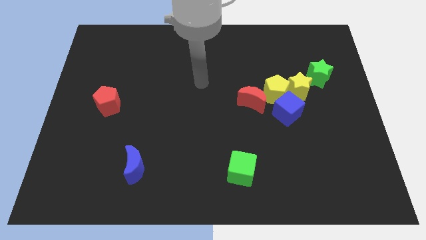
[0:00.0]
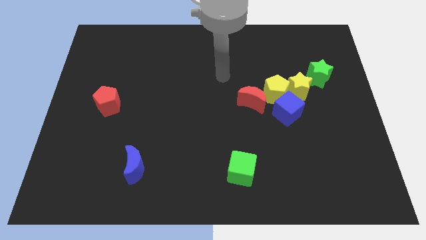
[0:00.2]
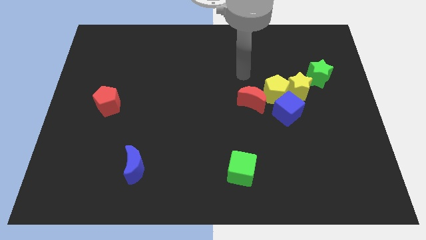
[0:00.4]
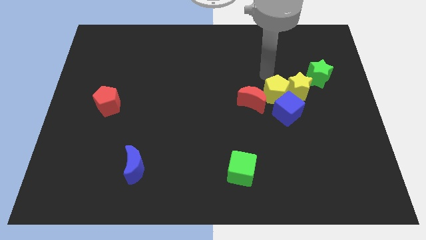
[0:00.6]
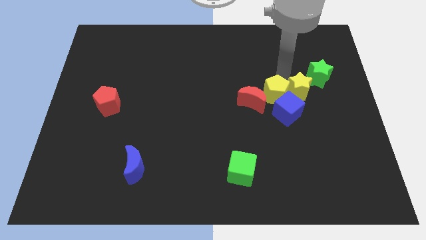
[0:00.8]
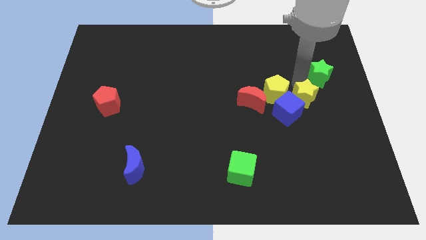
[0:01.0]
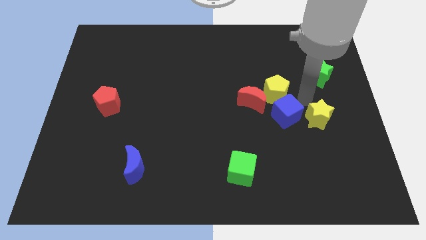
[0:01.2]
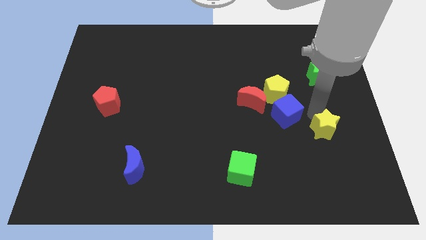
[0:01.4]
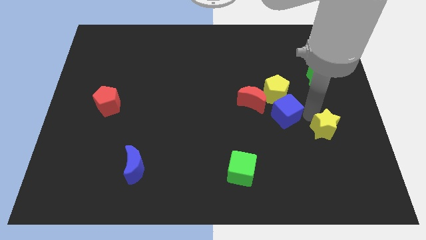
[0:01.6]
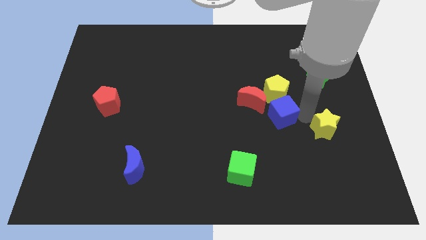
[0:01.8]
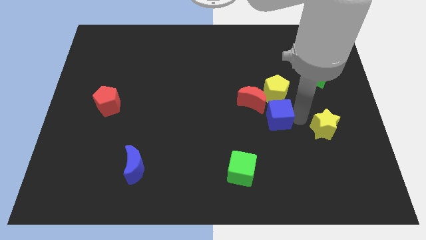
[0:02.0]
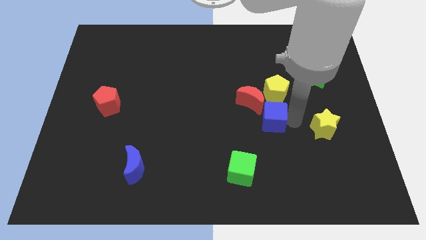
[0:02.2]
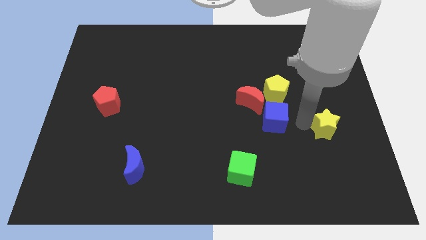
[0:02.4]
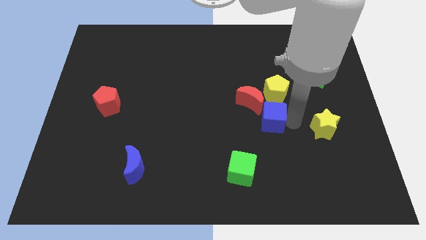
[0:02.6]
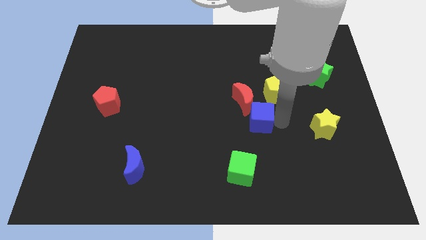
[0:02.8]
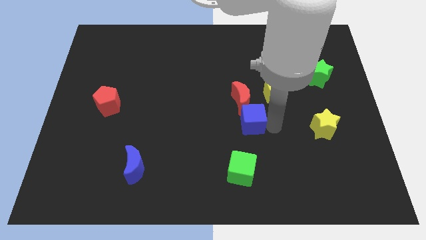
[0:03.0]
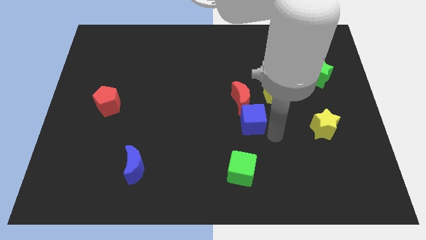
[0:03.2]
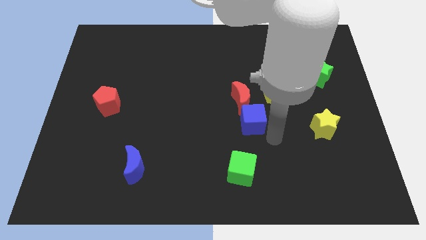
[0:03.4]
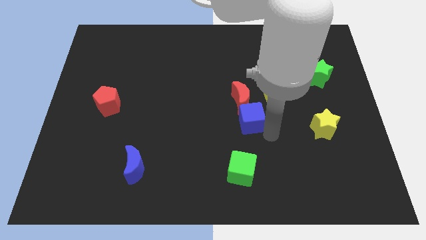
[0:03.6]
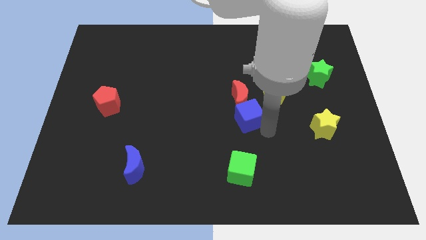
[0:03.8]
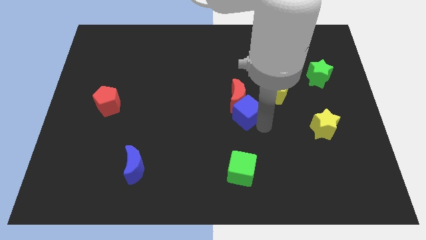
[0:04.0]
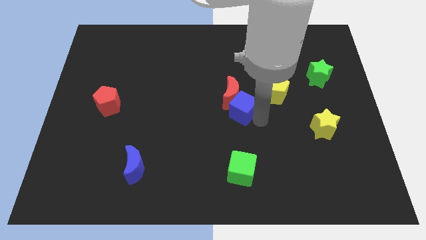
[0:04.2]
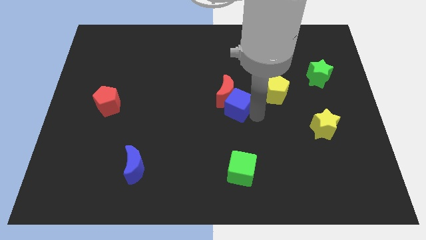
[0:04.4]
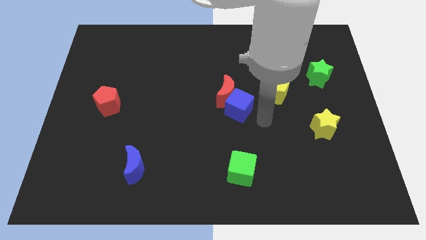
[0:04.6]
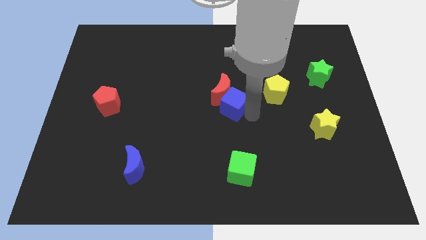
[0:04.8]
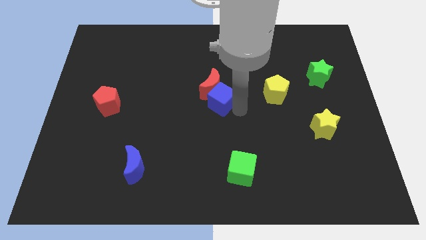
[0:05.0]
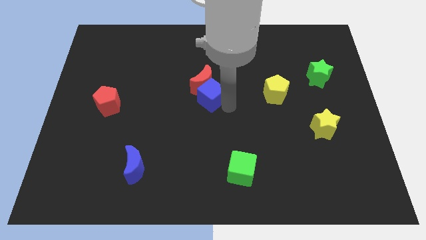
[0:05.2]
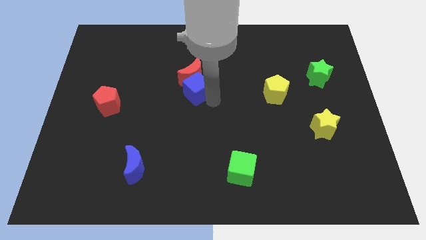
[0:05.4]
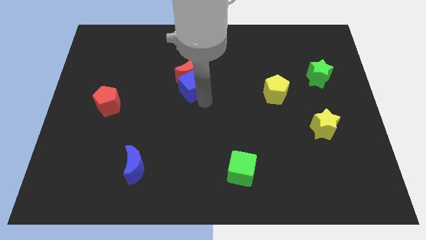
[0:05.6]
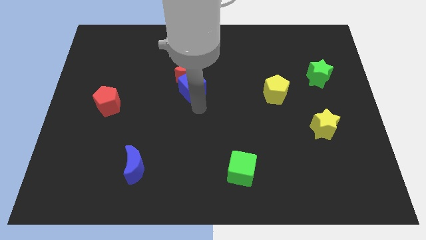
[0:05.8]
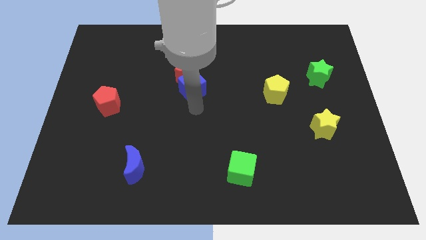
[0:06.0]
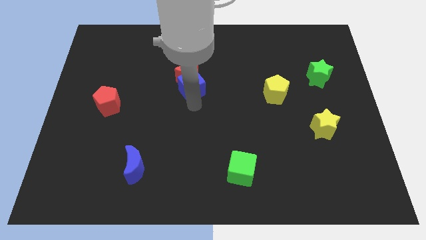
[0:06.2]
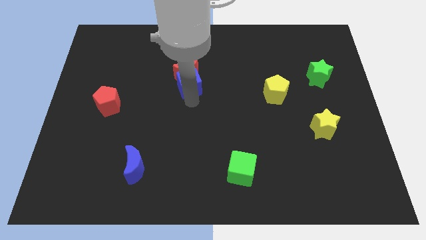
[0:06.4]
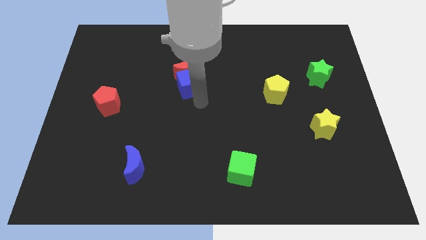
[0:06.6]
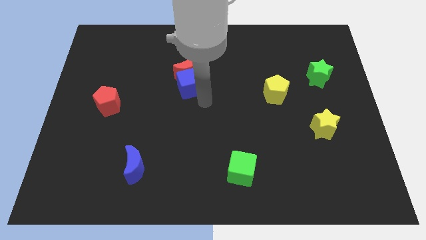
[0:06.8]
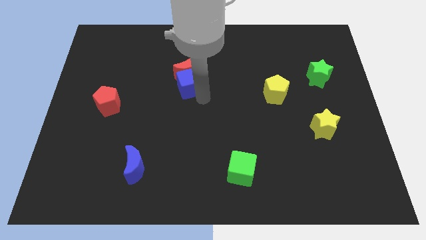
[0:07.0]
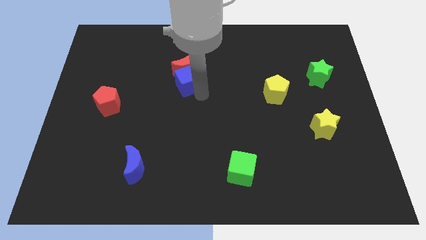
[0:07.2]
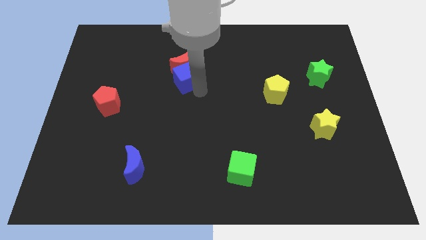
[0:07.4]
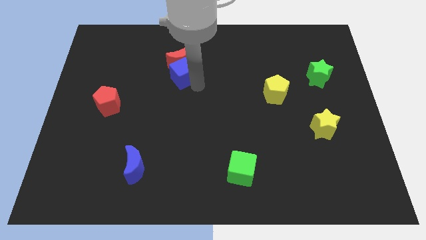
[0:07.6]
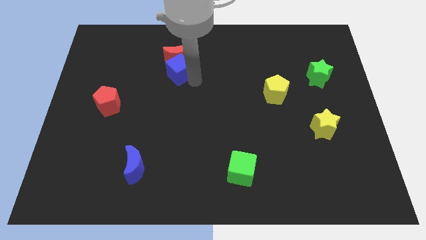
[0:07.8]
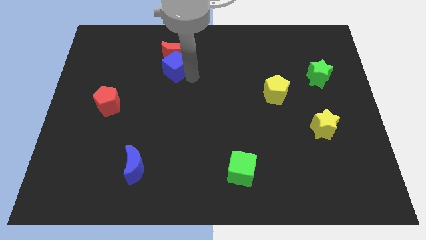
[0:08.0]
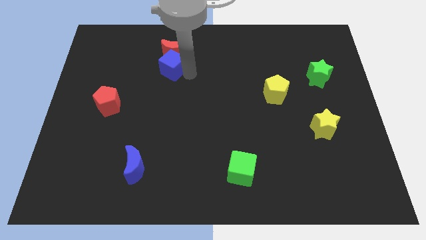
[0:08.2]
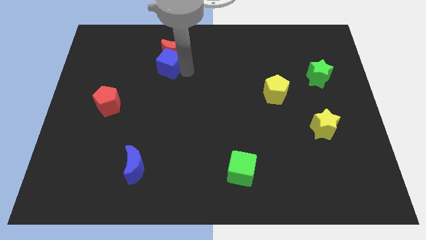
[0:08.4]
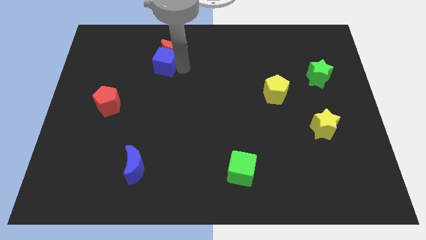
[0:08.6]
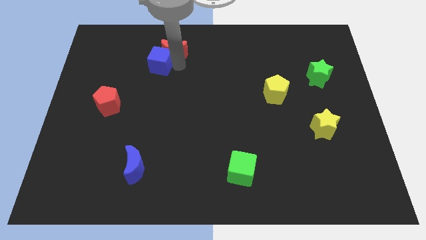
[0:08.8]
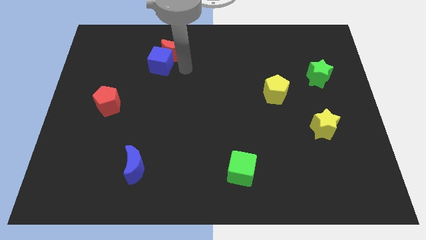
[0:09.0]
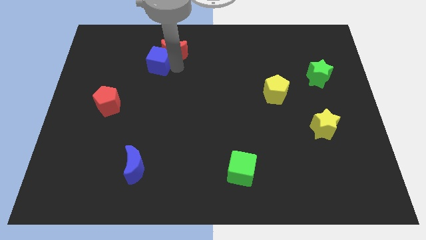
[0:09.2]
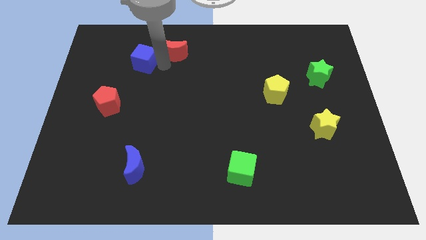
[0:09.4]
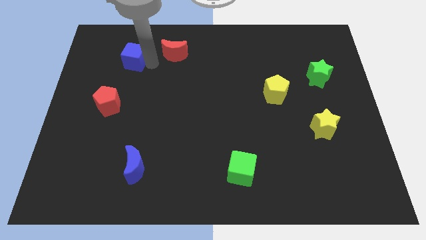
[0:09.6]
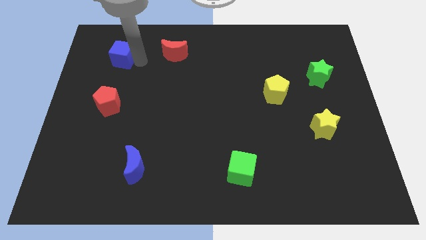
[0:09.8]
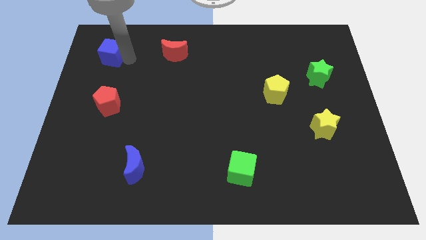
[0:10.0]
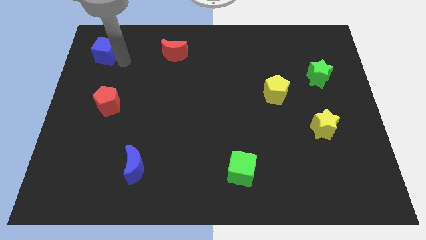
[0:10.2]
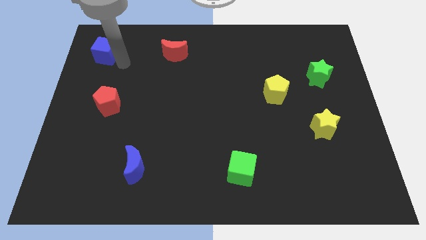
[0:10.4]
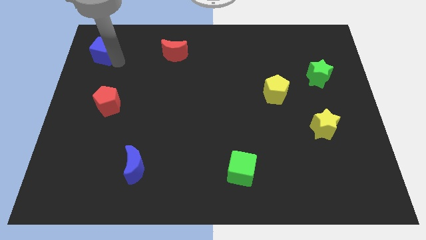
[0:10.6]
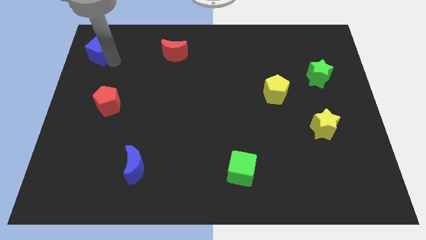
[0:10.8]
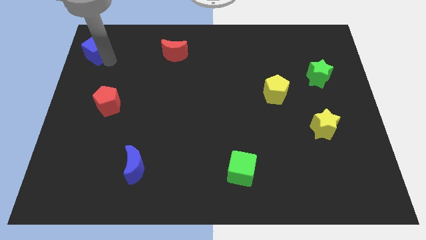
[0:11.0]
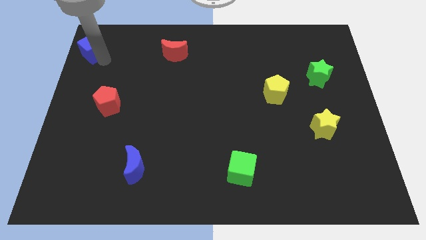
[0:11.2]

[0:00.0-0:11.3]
move the blue cube to the top left of the board

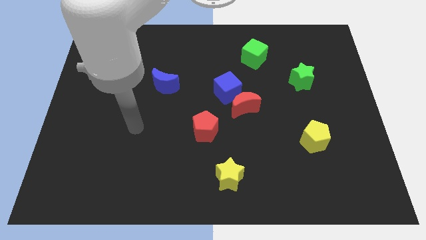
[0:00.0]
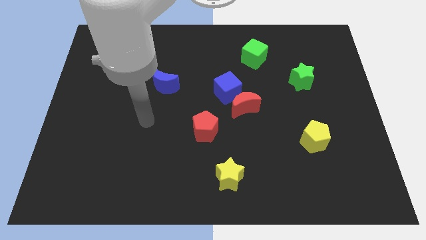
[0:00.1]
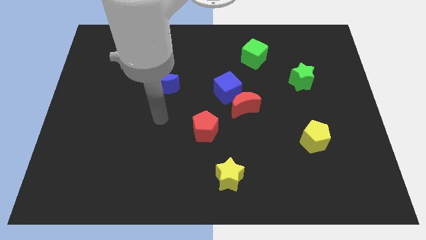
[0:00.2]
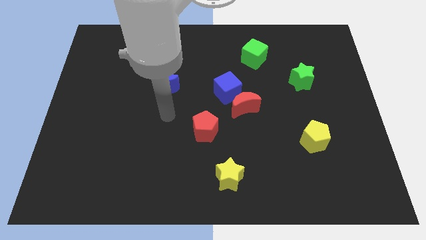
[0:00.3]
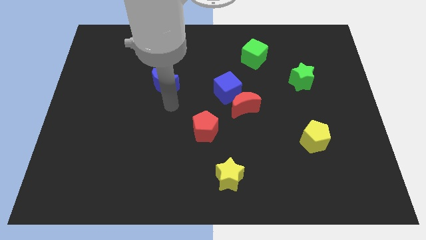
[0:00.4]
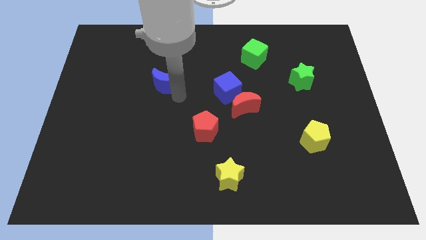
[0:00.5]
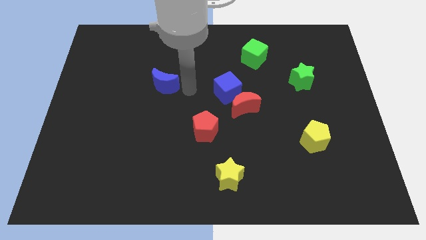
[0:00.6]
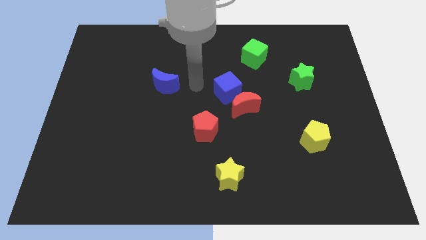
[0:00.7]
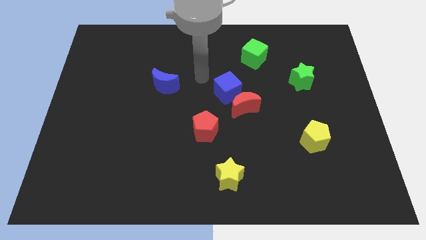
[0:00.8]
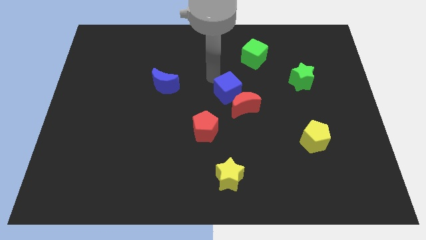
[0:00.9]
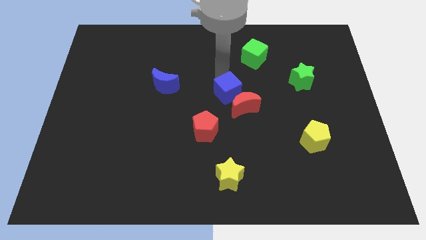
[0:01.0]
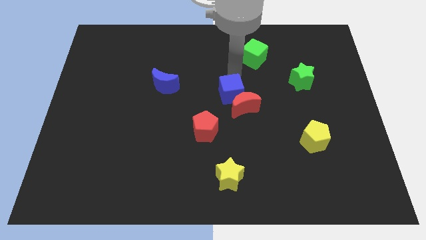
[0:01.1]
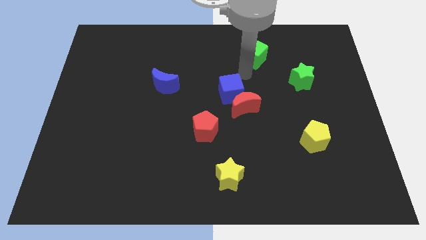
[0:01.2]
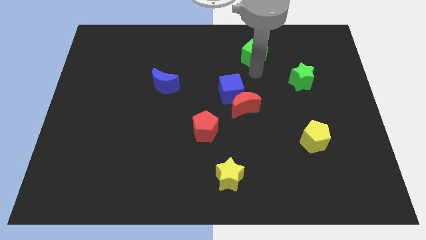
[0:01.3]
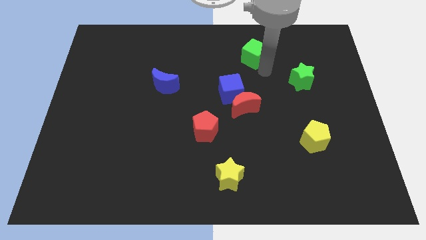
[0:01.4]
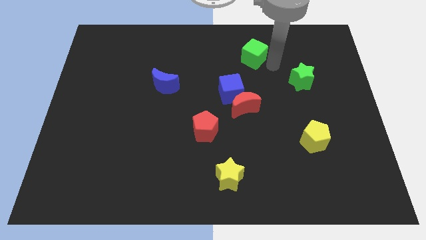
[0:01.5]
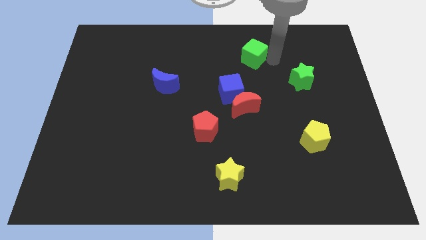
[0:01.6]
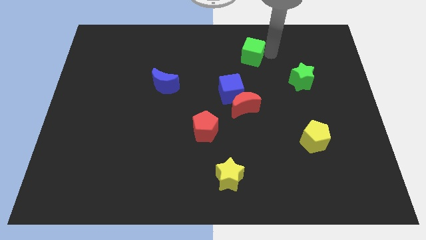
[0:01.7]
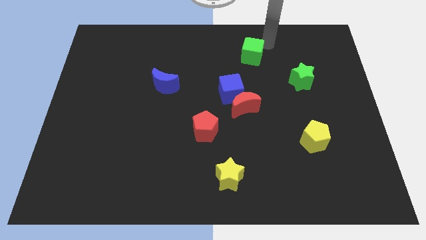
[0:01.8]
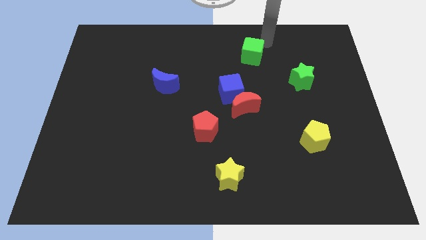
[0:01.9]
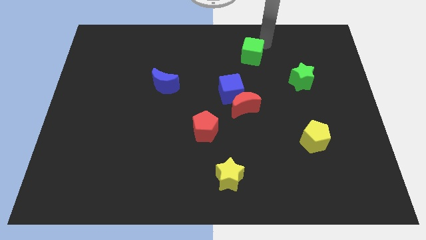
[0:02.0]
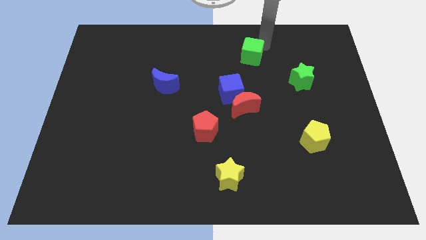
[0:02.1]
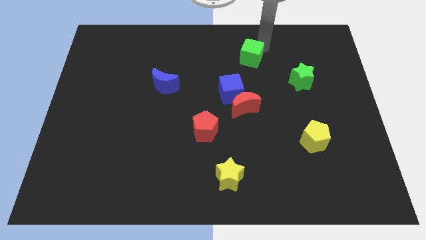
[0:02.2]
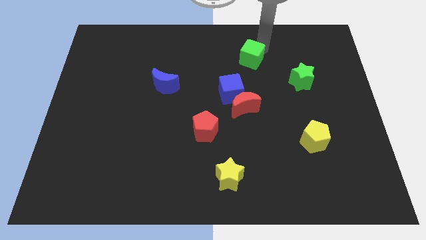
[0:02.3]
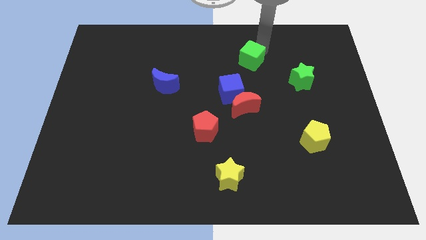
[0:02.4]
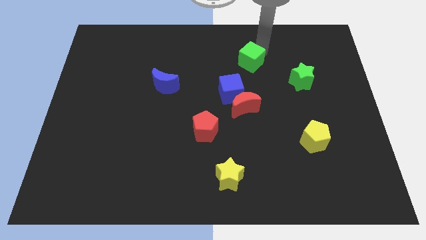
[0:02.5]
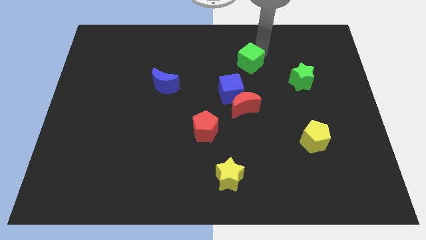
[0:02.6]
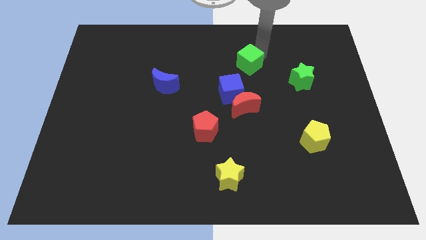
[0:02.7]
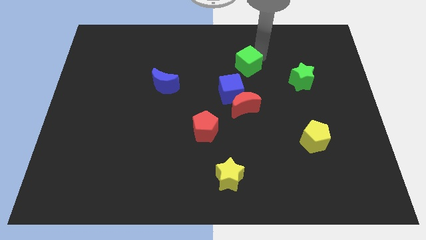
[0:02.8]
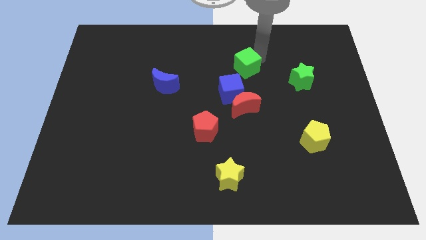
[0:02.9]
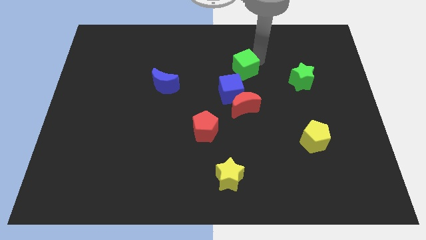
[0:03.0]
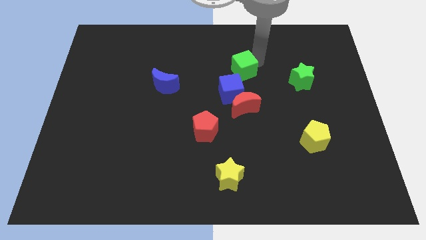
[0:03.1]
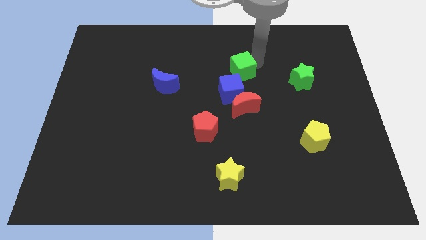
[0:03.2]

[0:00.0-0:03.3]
slide the green cube to the center
